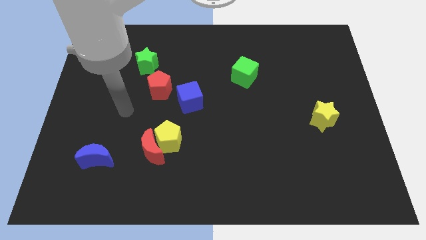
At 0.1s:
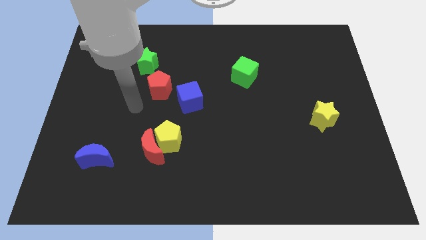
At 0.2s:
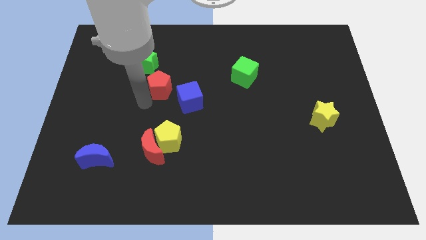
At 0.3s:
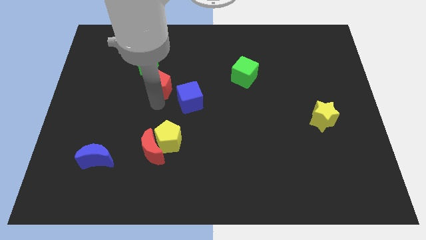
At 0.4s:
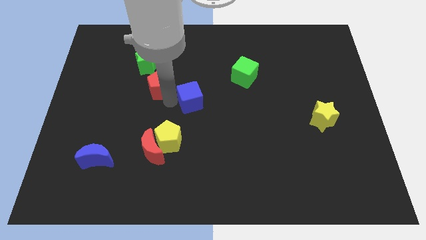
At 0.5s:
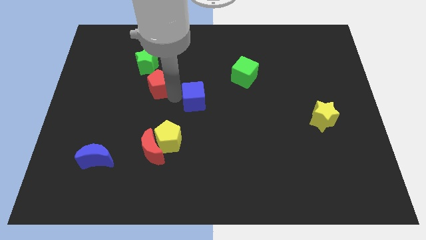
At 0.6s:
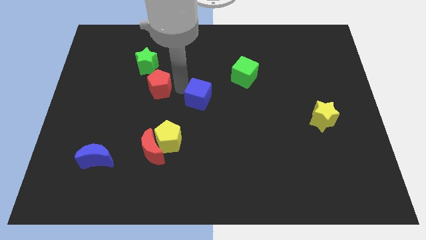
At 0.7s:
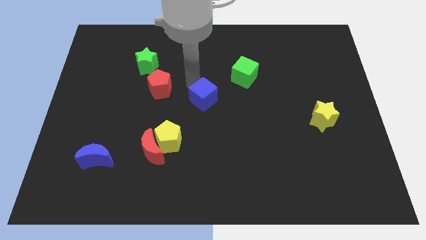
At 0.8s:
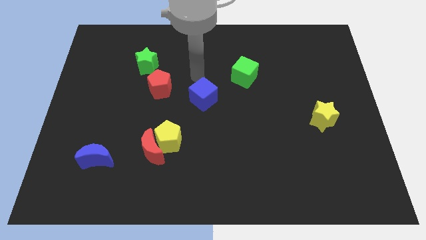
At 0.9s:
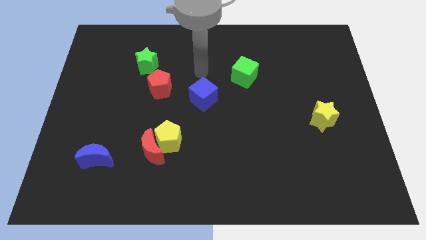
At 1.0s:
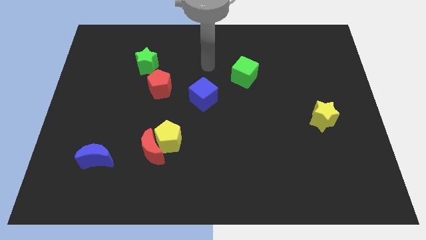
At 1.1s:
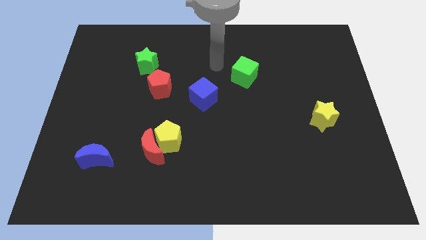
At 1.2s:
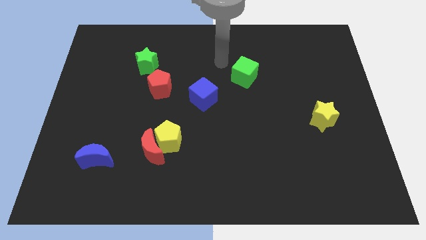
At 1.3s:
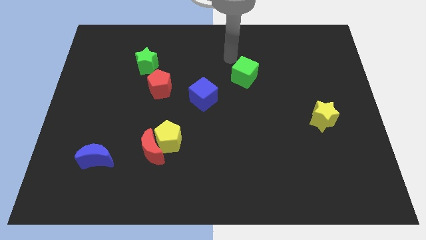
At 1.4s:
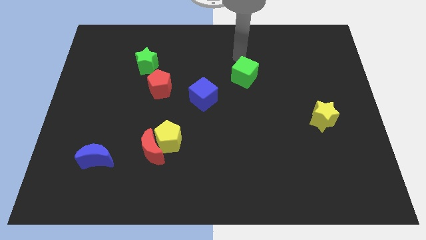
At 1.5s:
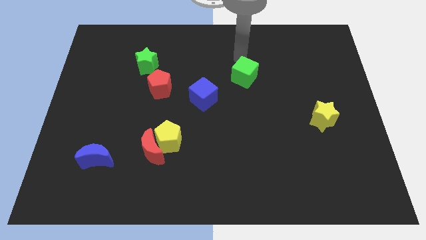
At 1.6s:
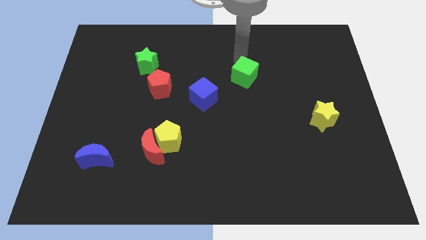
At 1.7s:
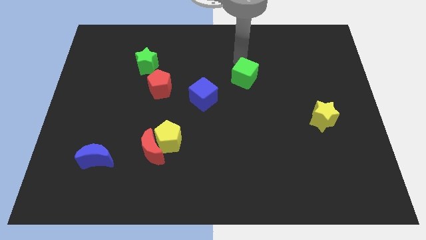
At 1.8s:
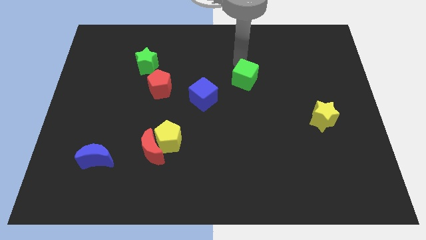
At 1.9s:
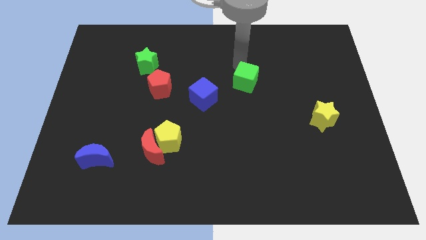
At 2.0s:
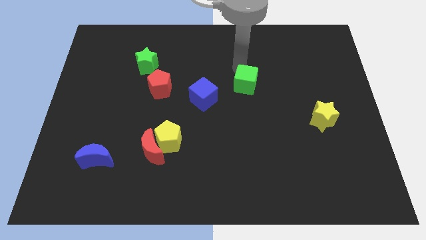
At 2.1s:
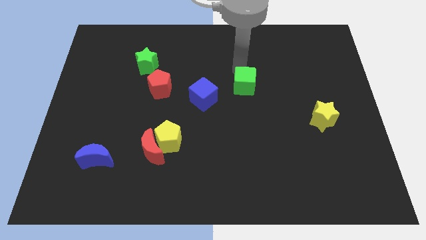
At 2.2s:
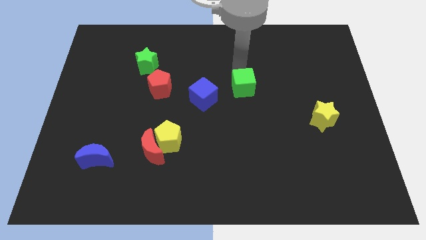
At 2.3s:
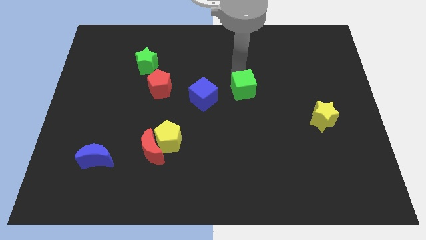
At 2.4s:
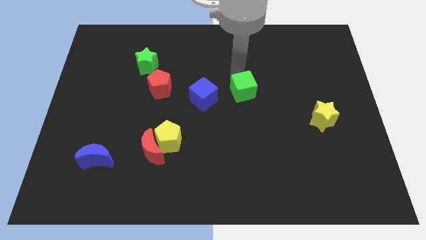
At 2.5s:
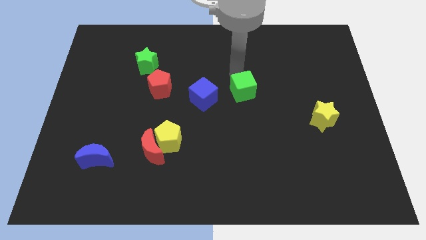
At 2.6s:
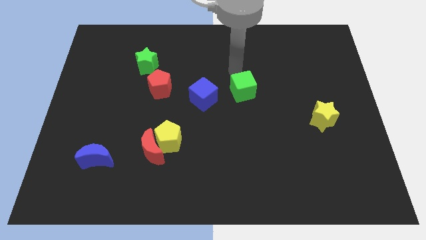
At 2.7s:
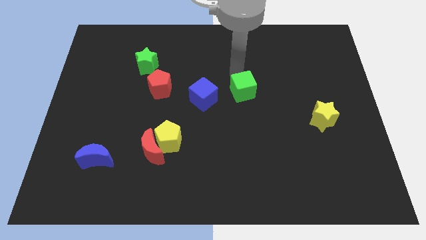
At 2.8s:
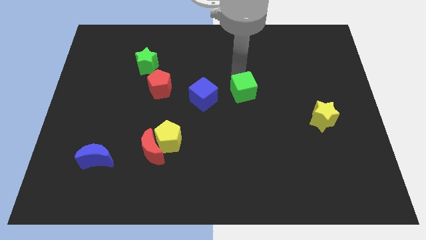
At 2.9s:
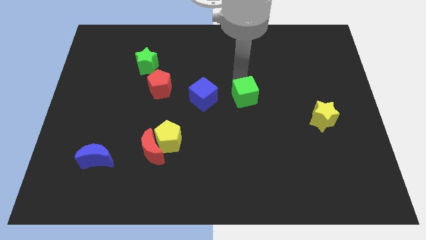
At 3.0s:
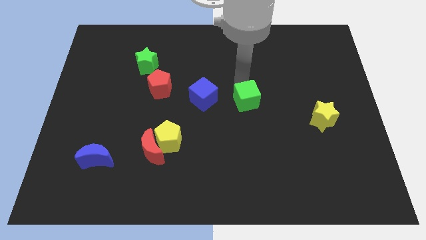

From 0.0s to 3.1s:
slightly push the green cube downwards

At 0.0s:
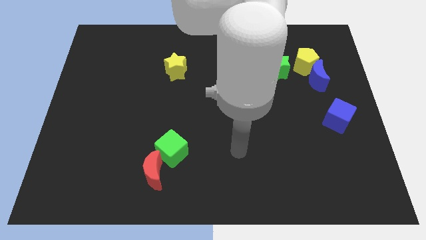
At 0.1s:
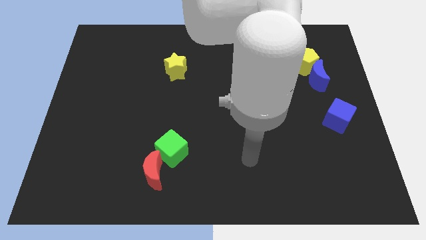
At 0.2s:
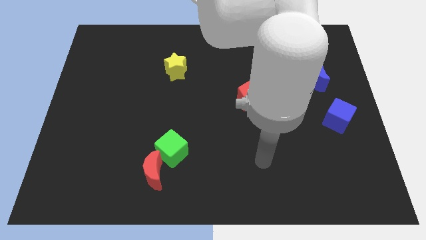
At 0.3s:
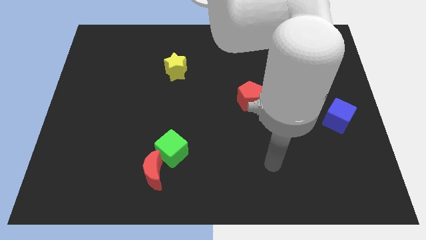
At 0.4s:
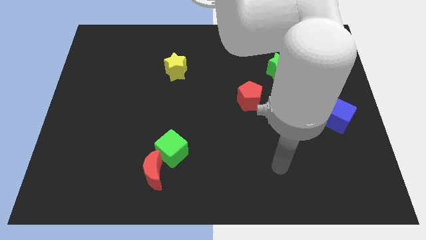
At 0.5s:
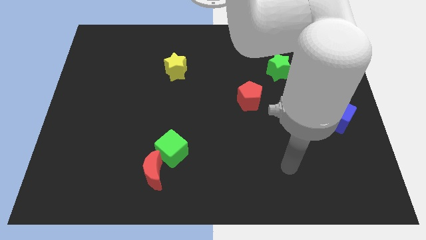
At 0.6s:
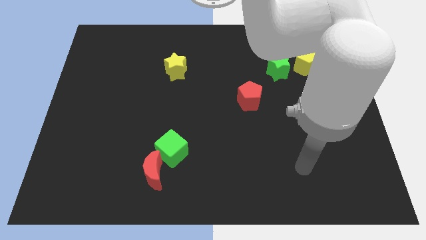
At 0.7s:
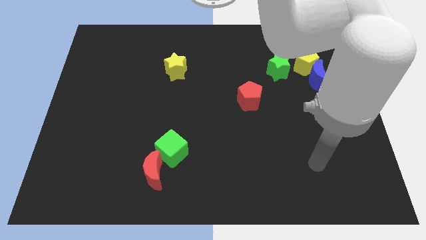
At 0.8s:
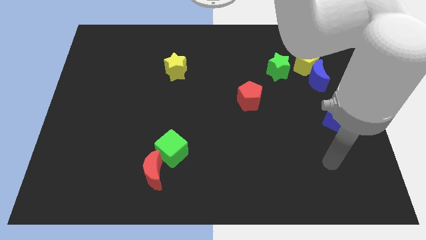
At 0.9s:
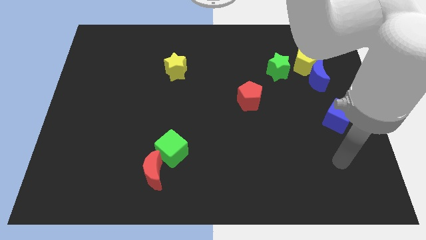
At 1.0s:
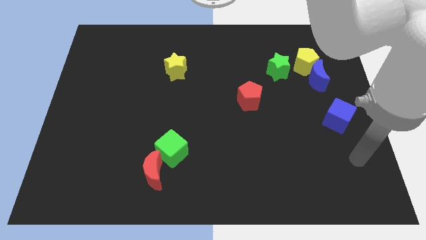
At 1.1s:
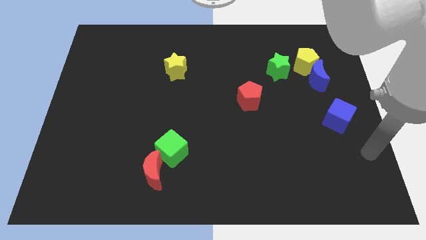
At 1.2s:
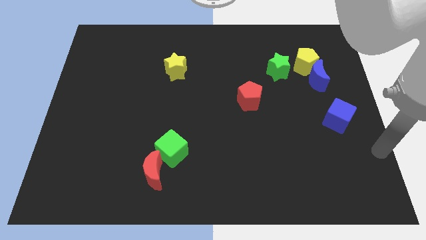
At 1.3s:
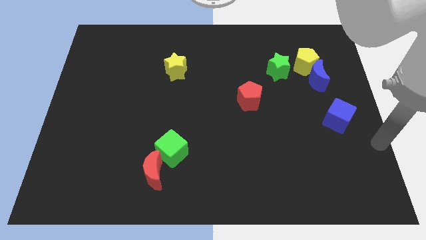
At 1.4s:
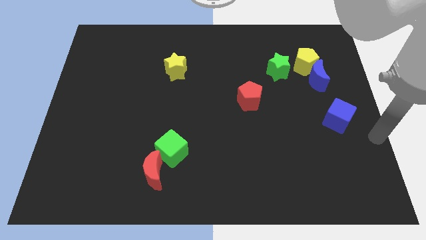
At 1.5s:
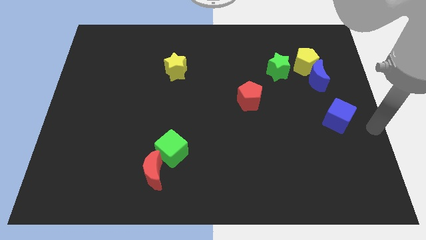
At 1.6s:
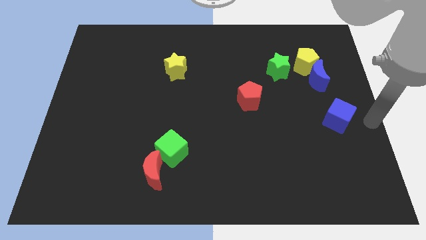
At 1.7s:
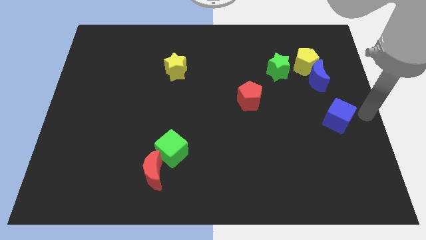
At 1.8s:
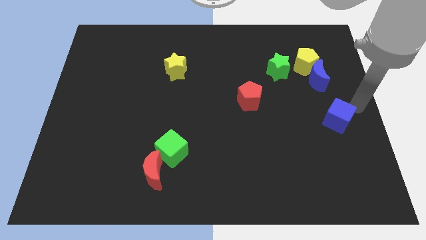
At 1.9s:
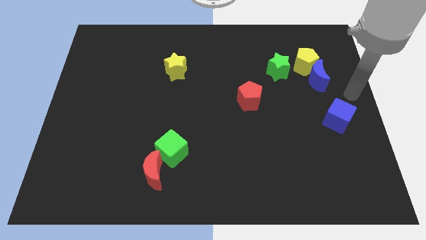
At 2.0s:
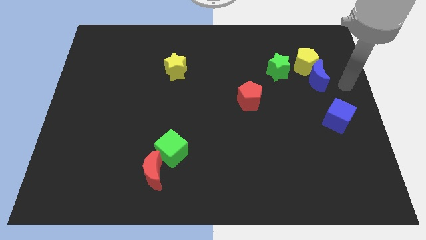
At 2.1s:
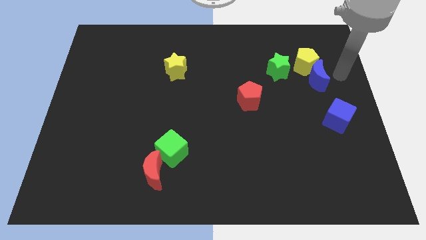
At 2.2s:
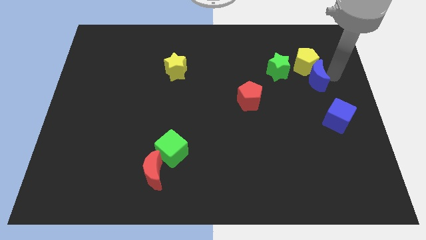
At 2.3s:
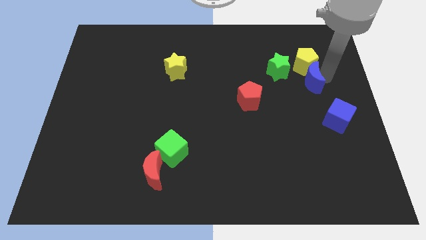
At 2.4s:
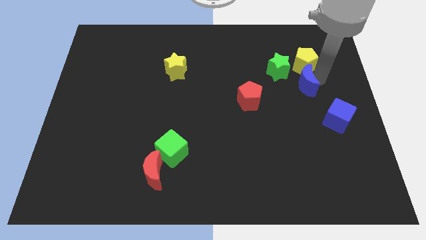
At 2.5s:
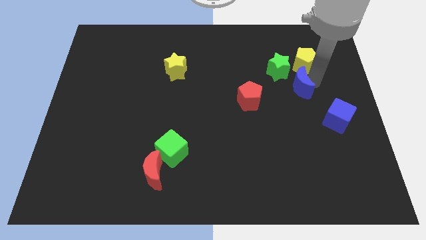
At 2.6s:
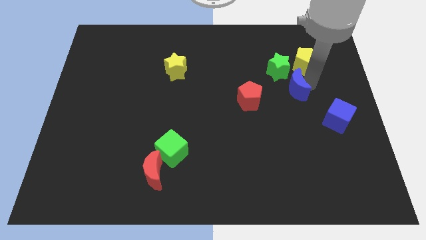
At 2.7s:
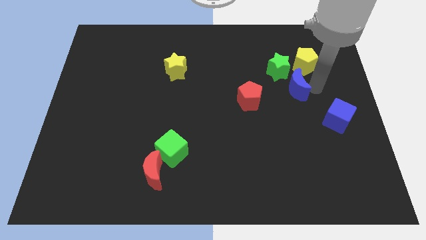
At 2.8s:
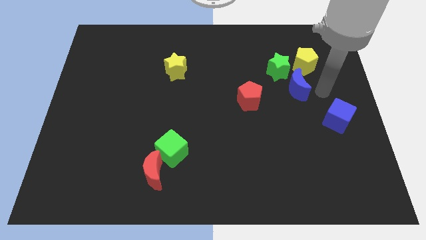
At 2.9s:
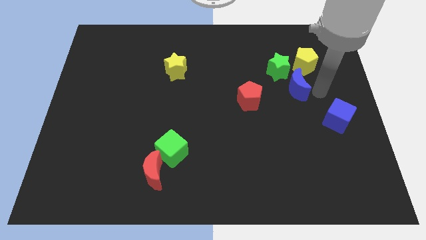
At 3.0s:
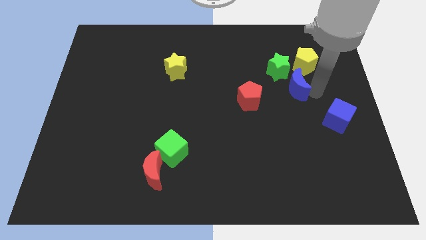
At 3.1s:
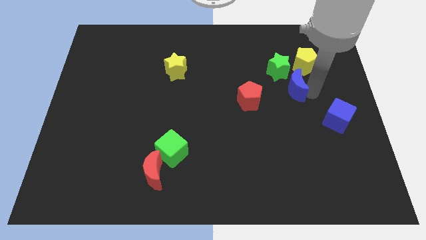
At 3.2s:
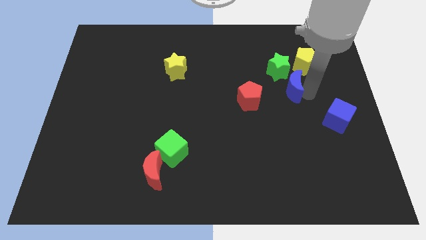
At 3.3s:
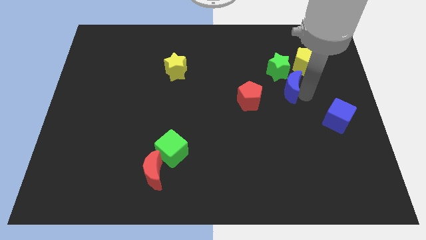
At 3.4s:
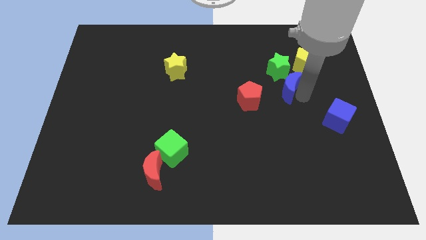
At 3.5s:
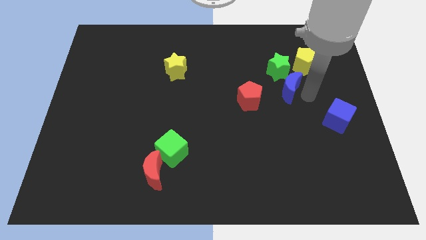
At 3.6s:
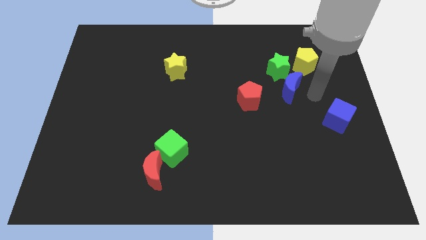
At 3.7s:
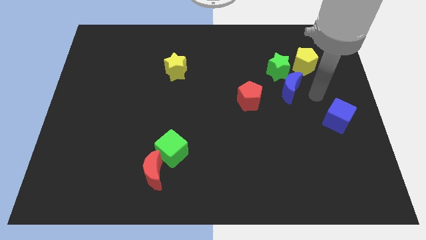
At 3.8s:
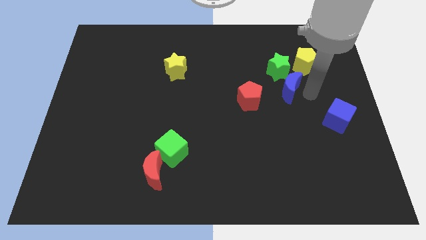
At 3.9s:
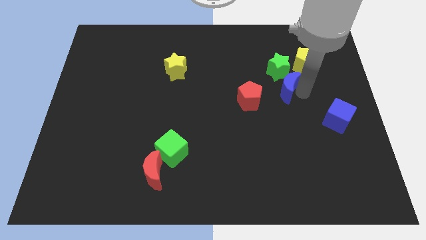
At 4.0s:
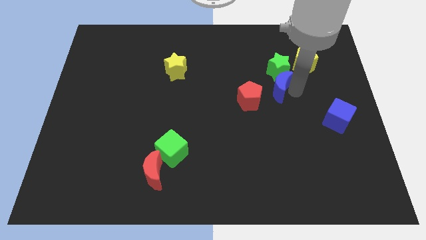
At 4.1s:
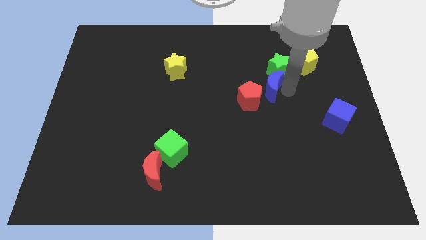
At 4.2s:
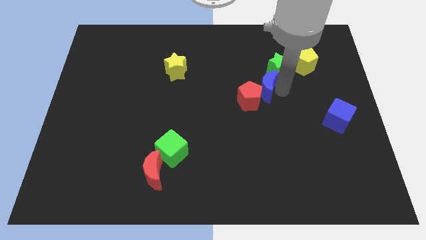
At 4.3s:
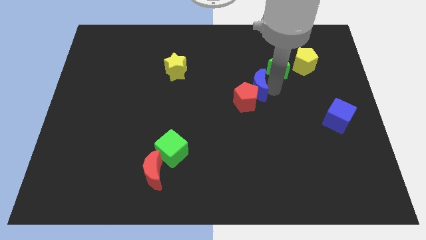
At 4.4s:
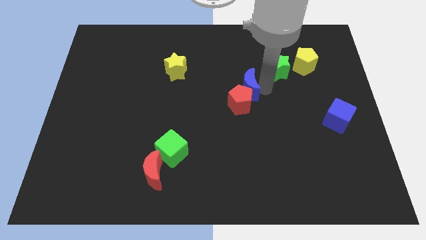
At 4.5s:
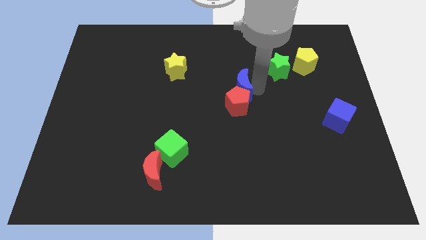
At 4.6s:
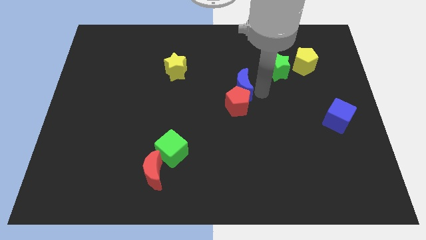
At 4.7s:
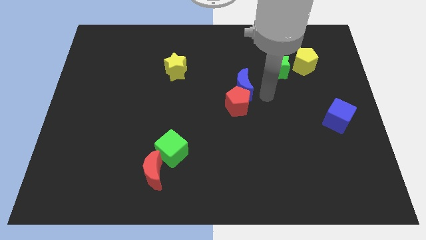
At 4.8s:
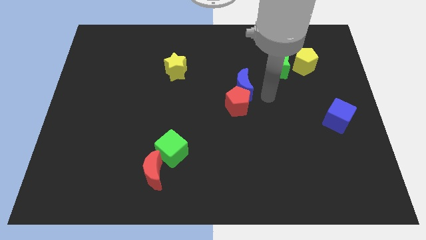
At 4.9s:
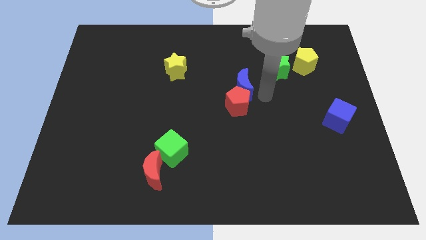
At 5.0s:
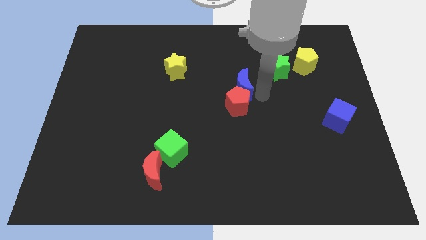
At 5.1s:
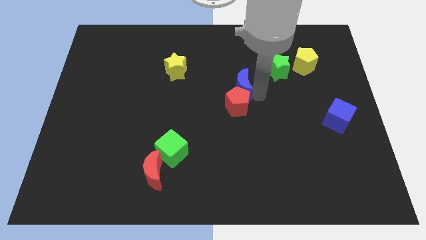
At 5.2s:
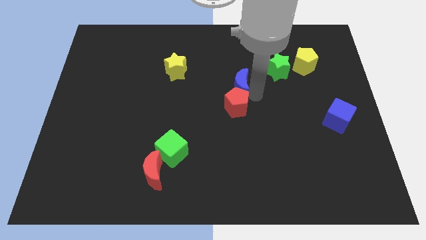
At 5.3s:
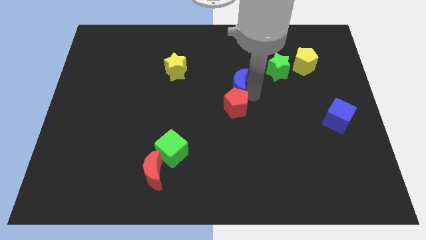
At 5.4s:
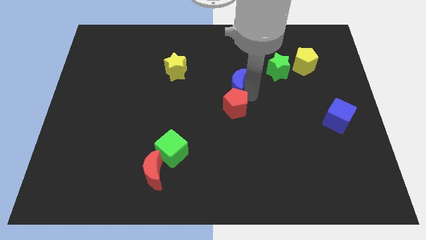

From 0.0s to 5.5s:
push the blue moon left
